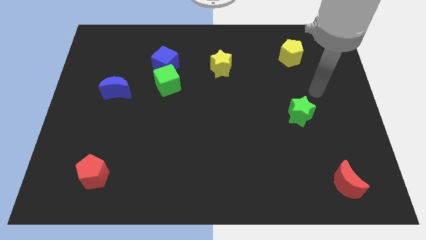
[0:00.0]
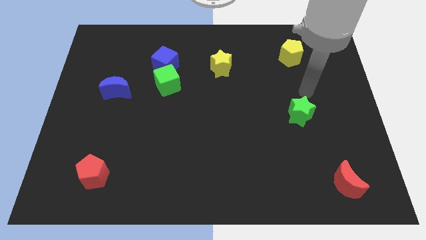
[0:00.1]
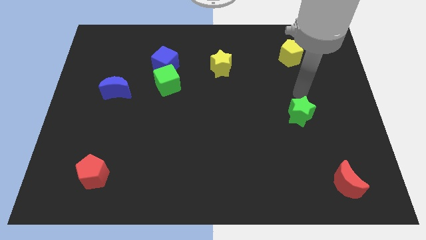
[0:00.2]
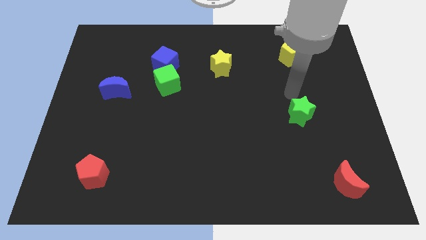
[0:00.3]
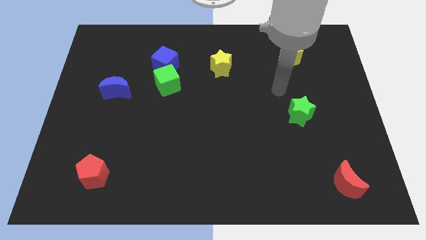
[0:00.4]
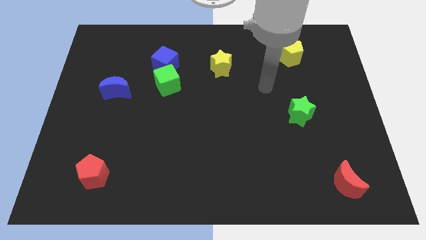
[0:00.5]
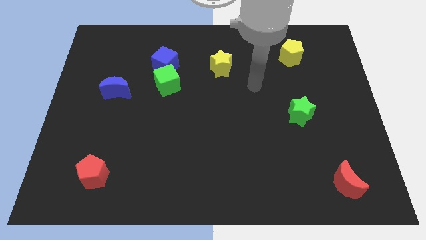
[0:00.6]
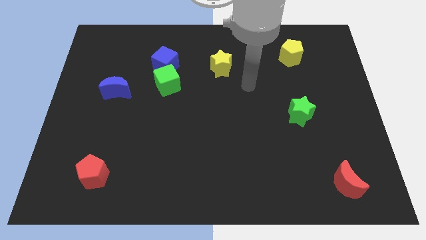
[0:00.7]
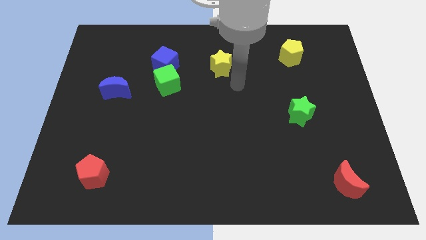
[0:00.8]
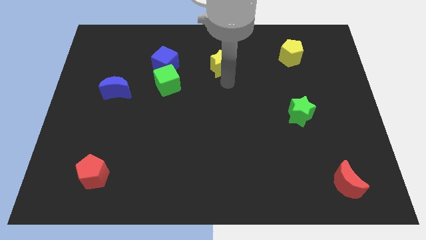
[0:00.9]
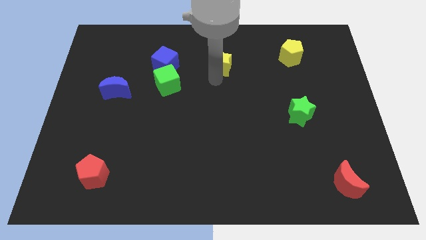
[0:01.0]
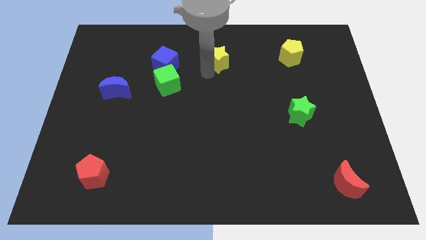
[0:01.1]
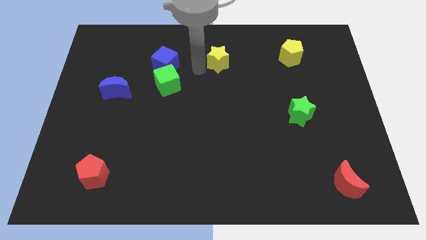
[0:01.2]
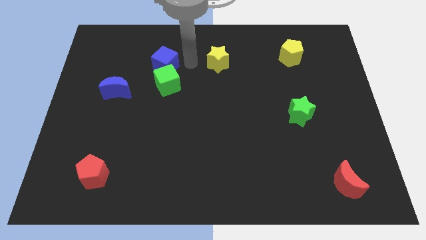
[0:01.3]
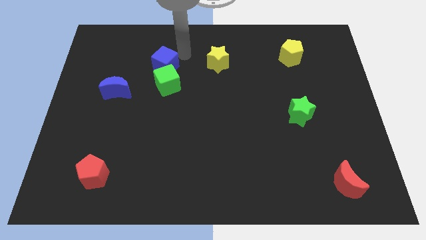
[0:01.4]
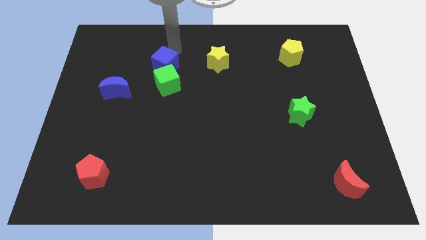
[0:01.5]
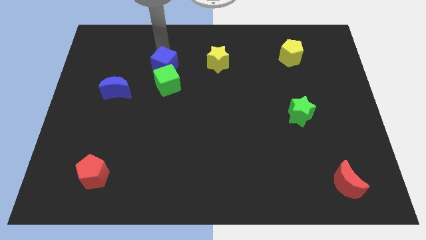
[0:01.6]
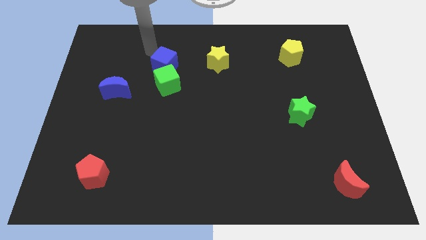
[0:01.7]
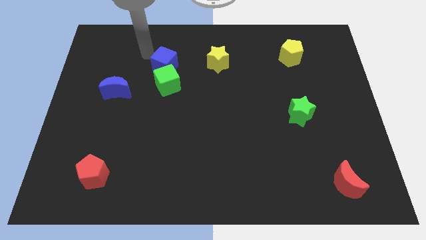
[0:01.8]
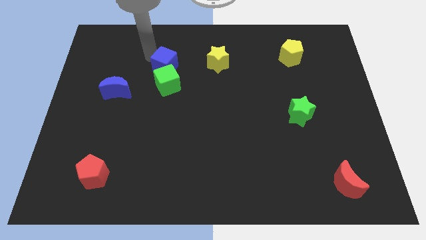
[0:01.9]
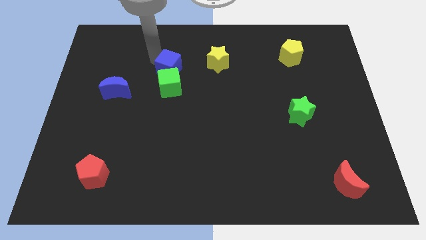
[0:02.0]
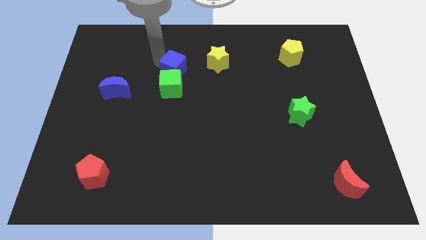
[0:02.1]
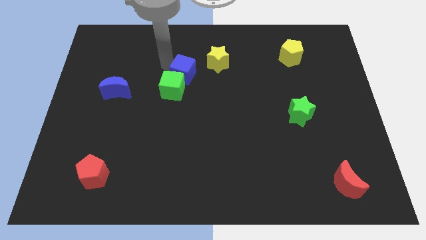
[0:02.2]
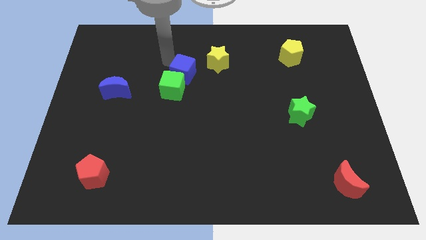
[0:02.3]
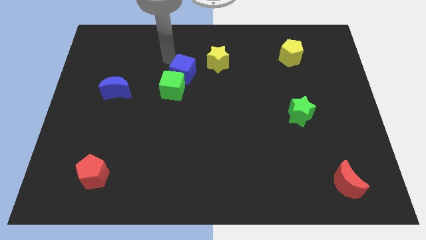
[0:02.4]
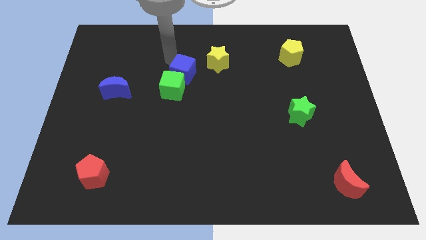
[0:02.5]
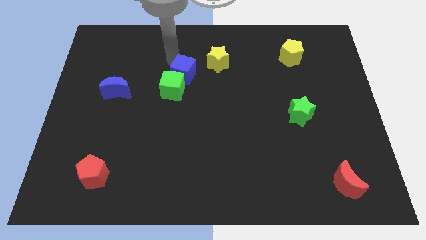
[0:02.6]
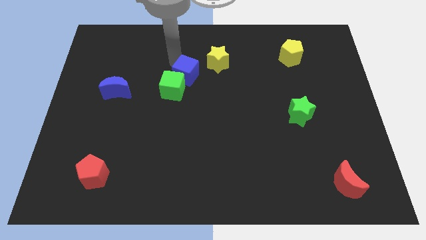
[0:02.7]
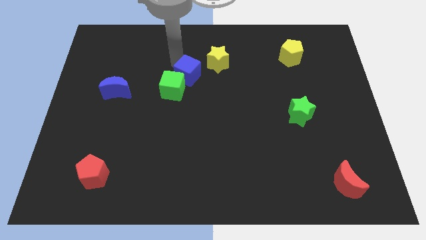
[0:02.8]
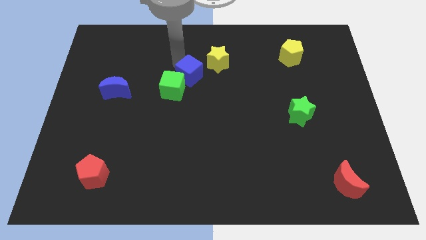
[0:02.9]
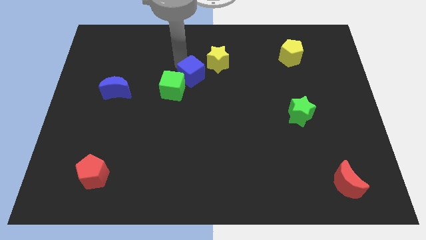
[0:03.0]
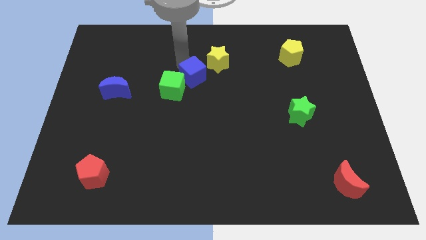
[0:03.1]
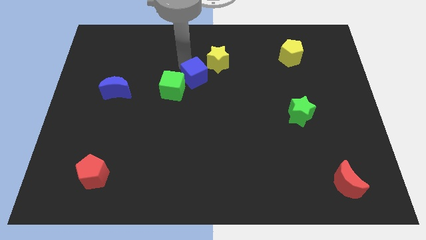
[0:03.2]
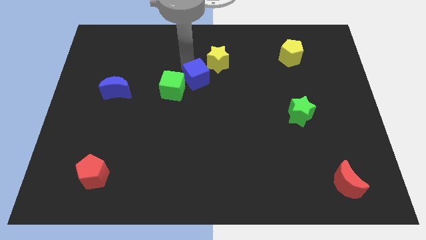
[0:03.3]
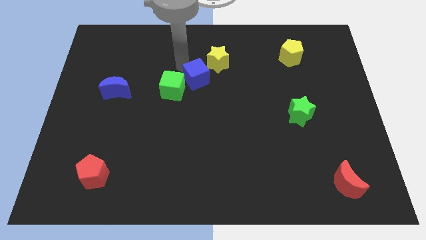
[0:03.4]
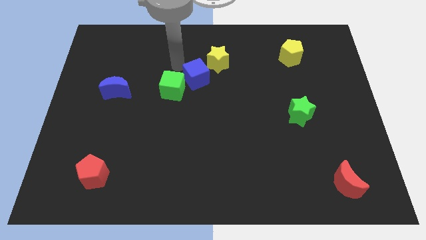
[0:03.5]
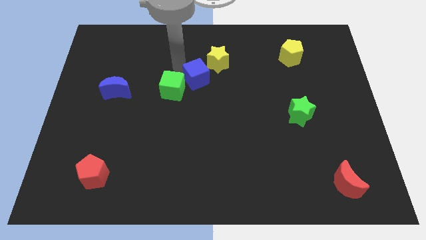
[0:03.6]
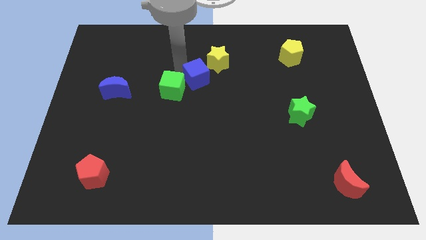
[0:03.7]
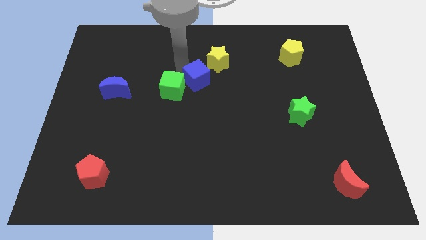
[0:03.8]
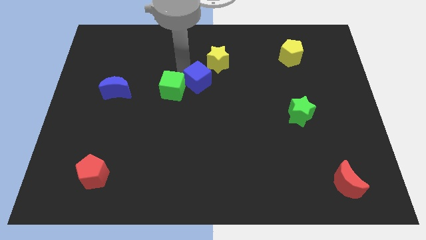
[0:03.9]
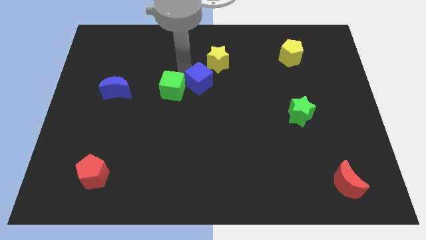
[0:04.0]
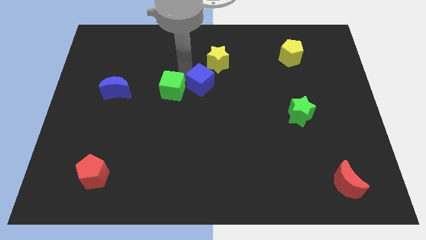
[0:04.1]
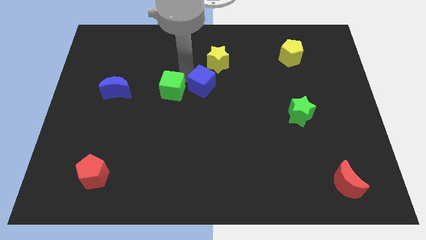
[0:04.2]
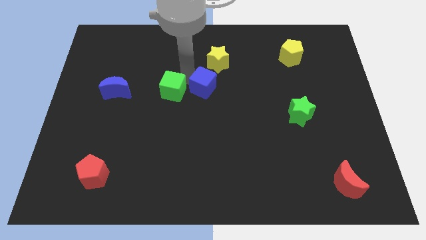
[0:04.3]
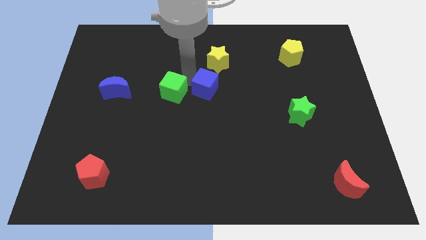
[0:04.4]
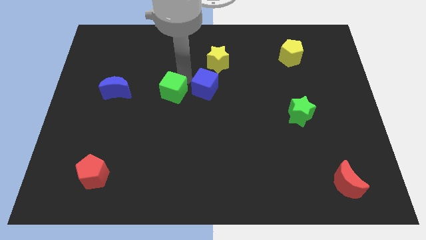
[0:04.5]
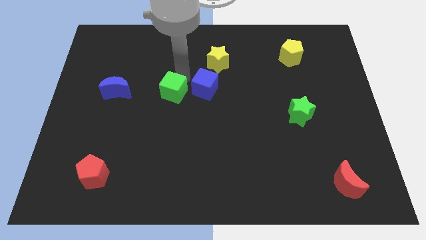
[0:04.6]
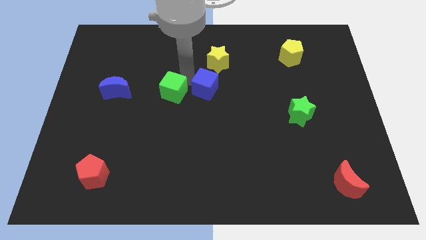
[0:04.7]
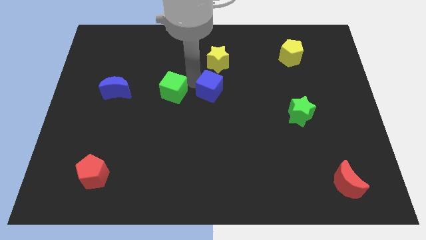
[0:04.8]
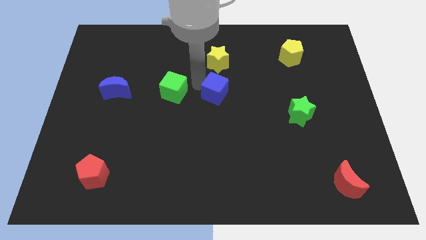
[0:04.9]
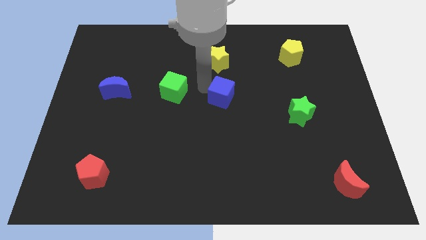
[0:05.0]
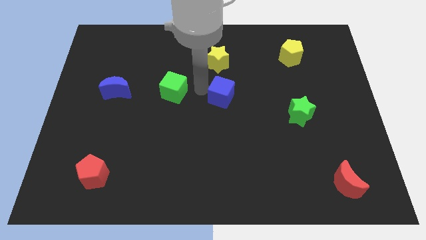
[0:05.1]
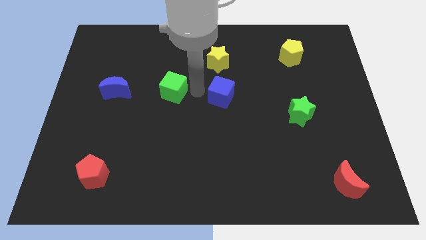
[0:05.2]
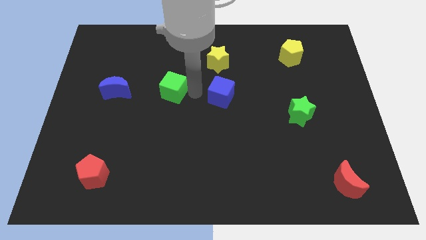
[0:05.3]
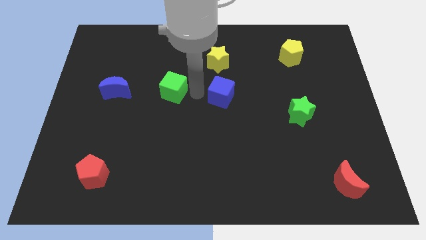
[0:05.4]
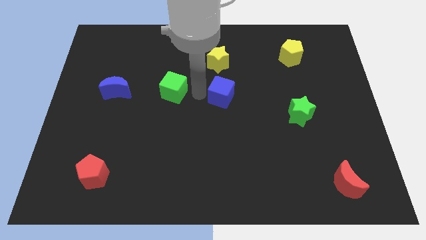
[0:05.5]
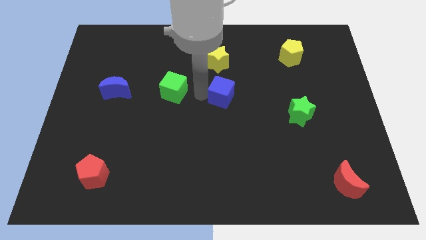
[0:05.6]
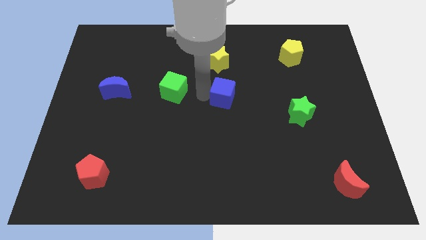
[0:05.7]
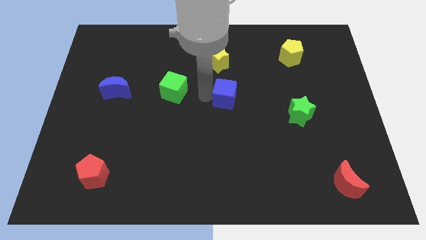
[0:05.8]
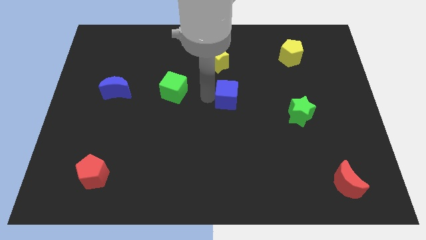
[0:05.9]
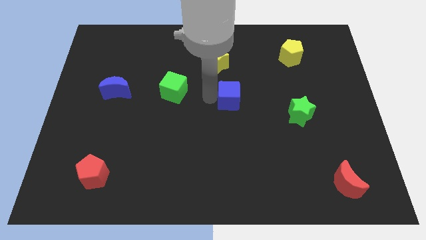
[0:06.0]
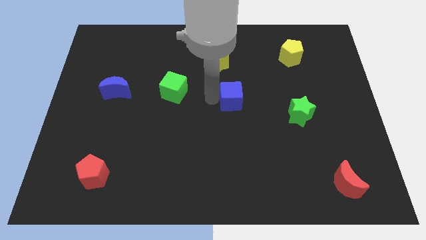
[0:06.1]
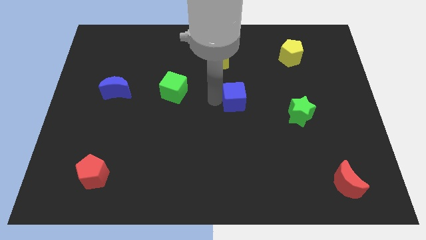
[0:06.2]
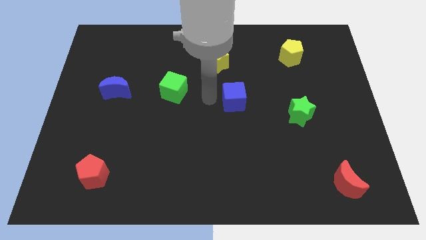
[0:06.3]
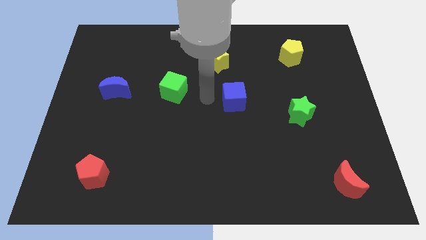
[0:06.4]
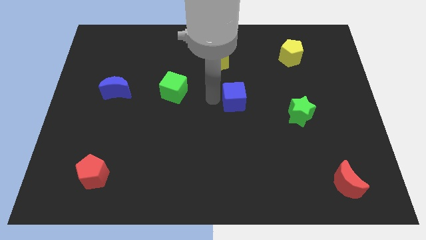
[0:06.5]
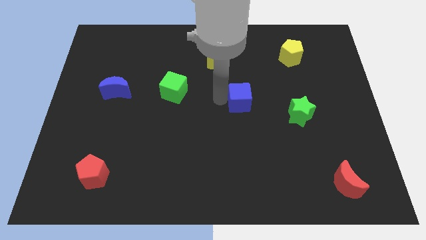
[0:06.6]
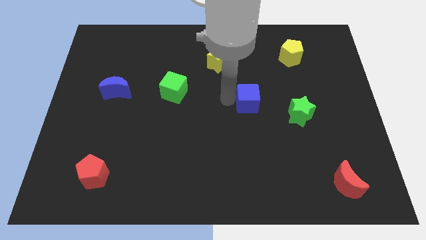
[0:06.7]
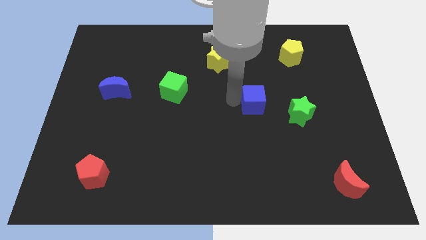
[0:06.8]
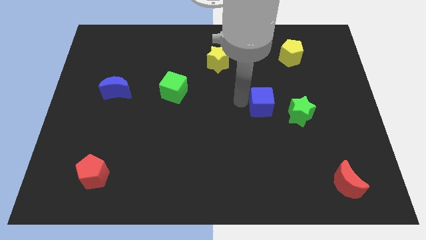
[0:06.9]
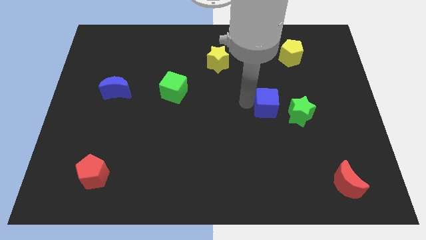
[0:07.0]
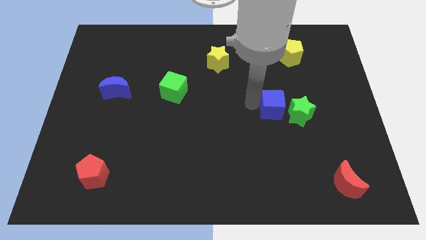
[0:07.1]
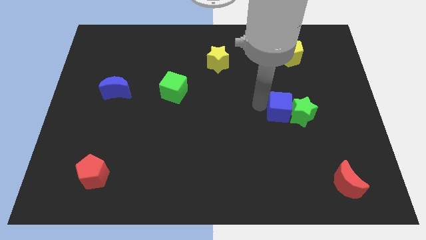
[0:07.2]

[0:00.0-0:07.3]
push the blue cube towards the green star
